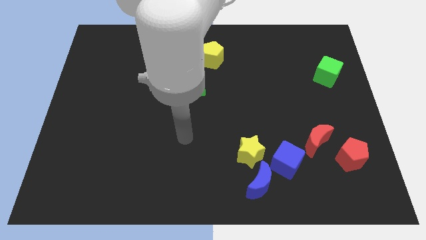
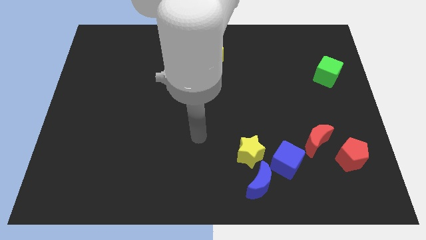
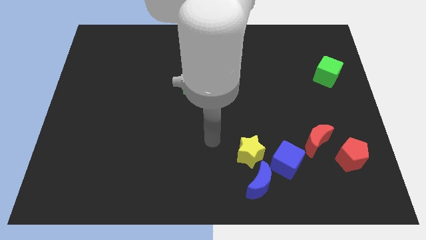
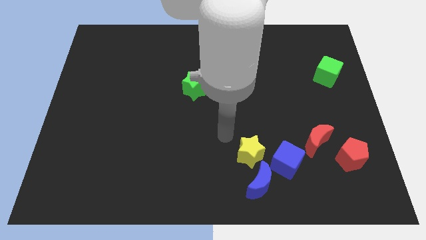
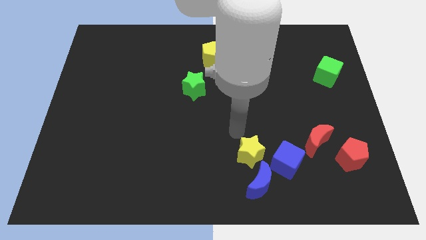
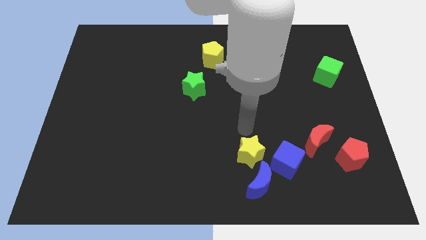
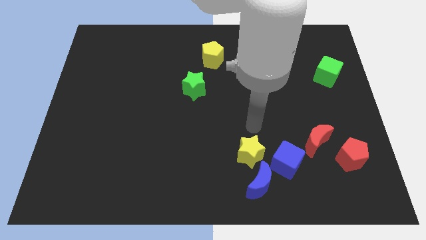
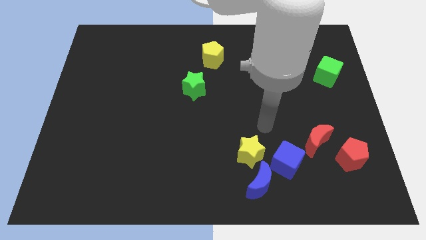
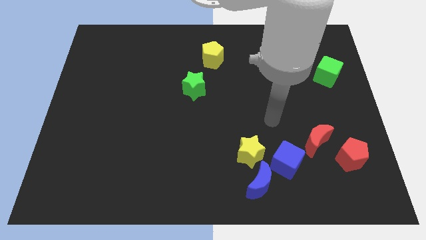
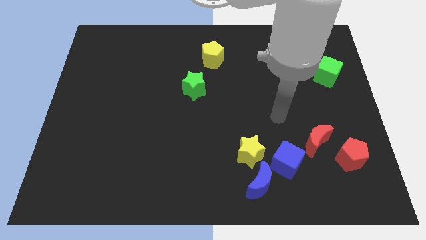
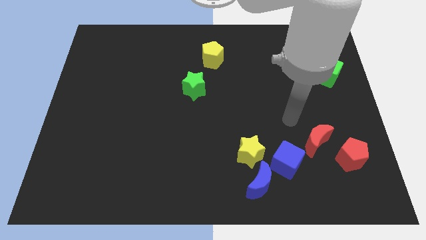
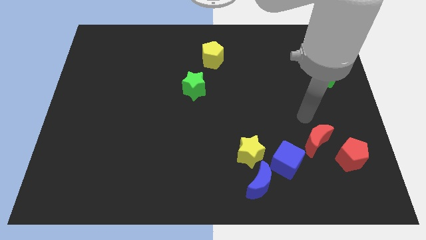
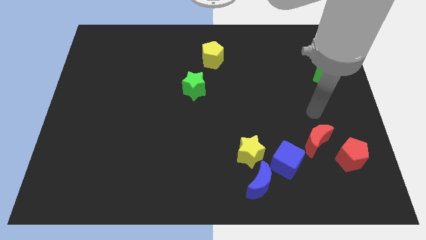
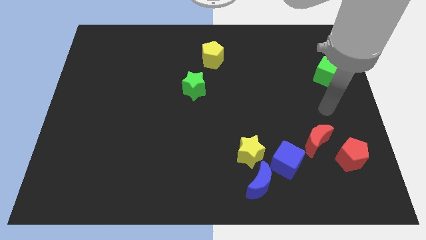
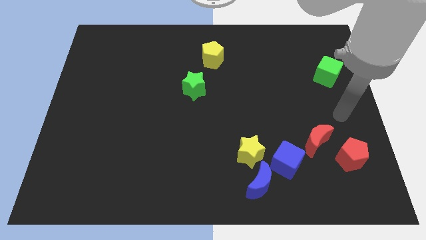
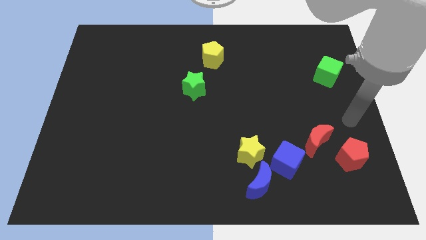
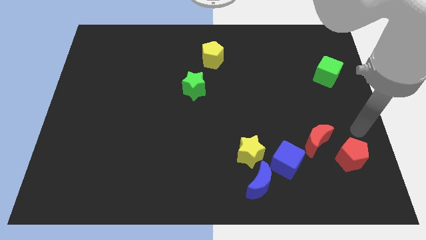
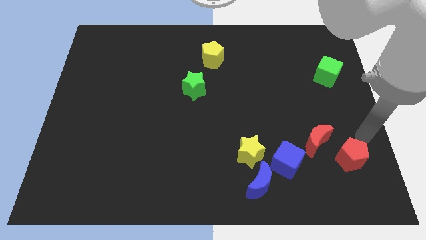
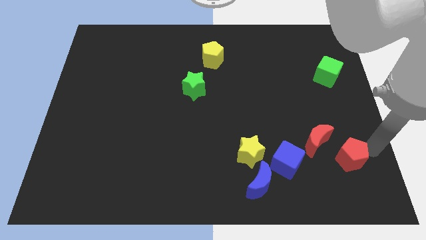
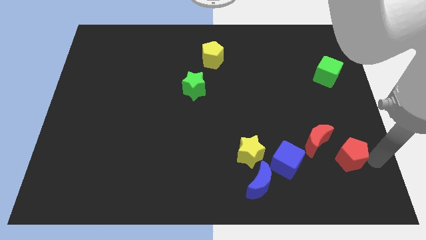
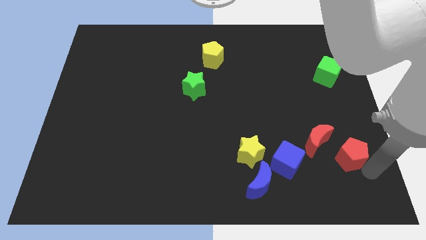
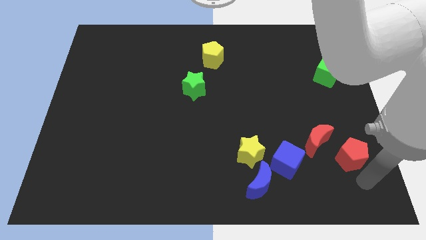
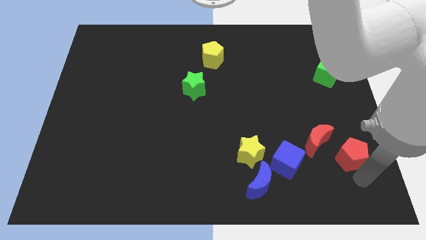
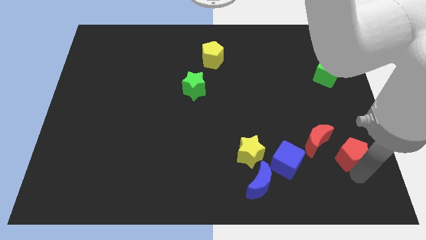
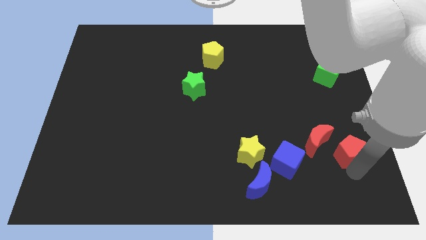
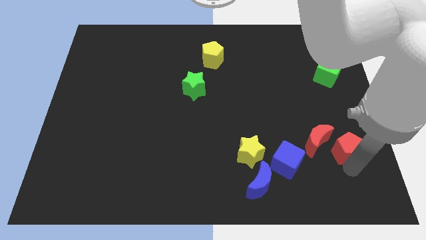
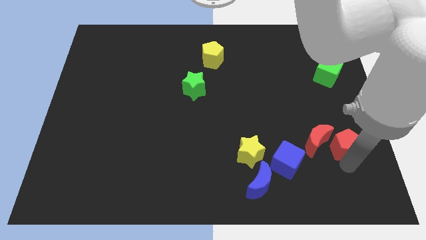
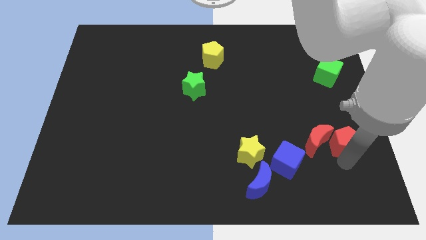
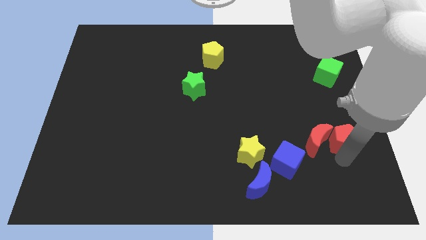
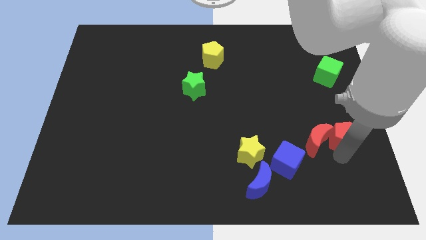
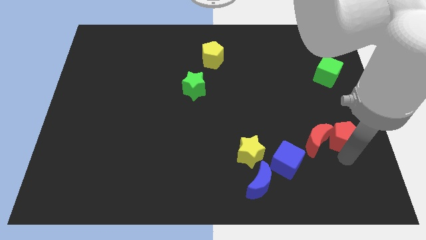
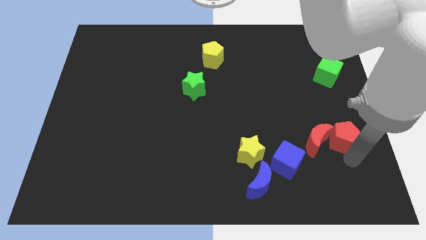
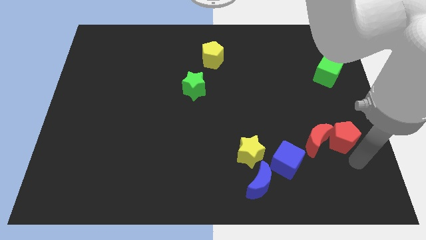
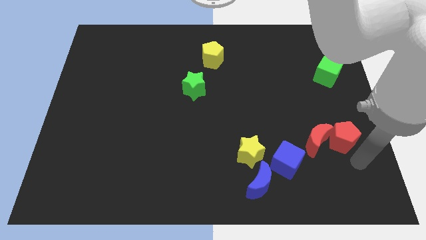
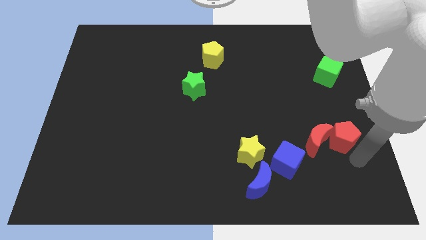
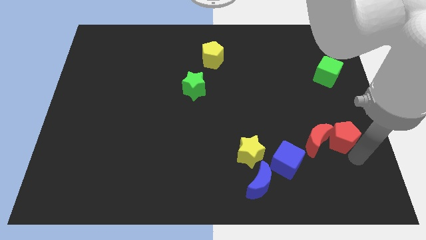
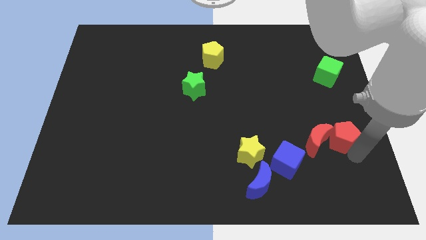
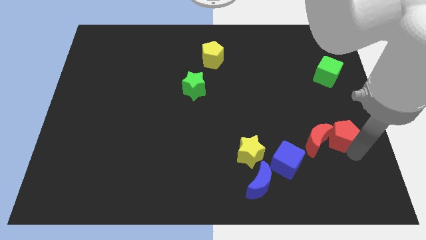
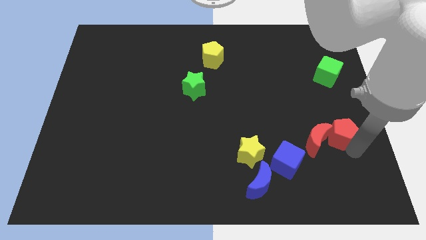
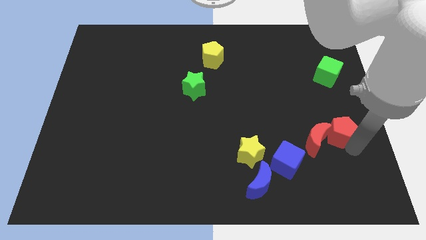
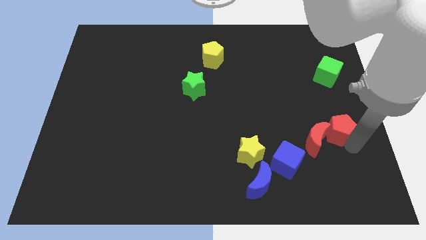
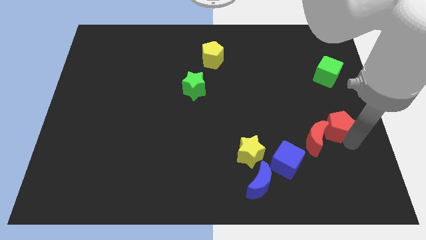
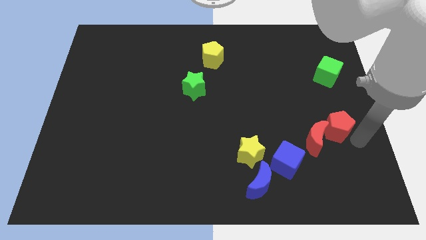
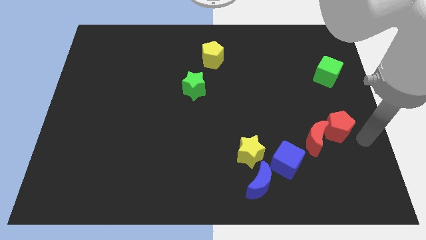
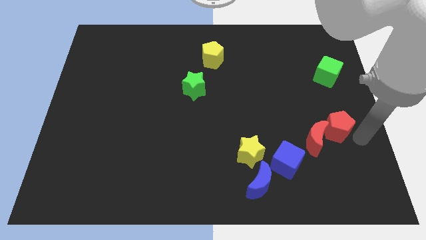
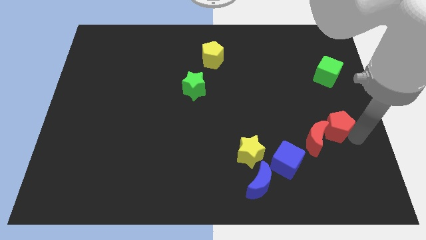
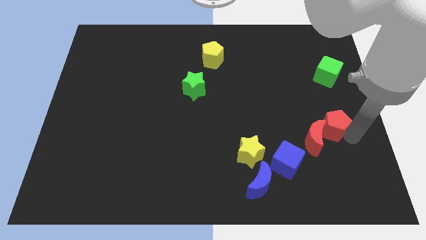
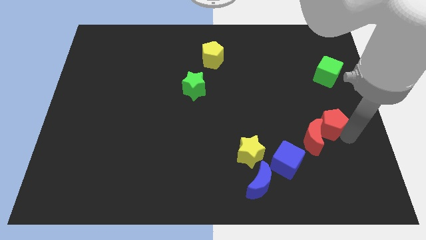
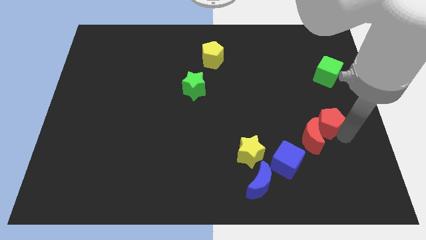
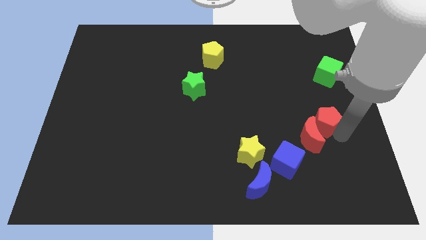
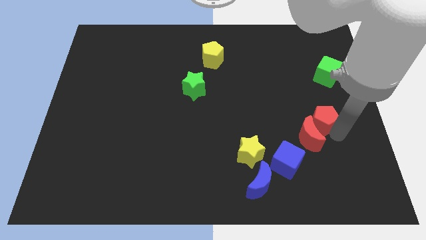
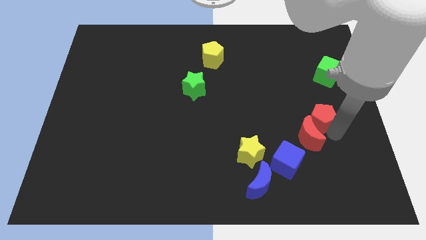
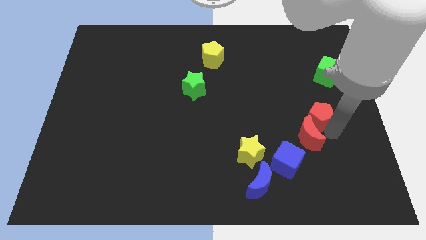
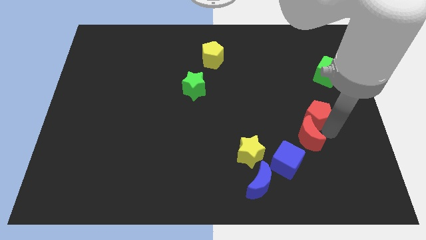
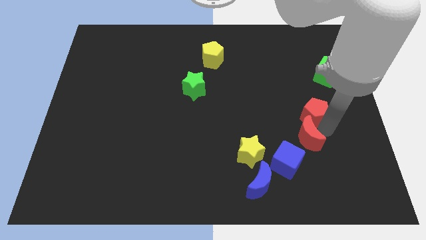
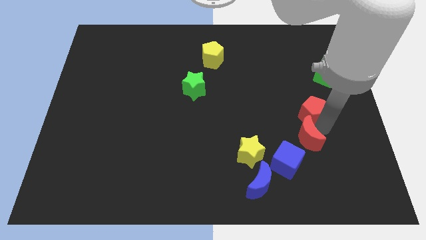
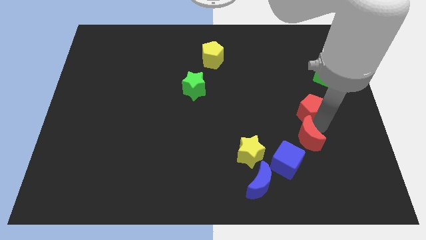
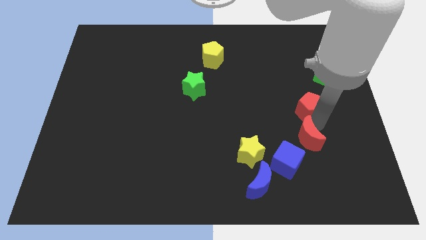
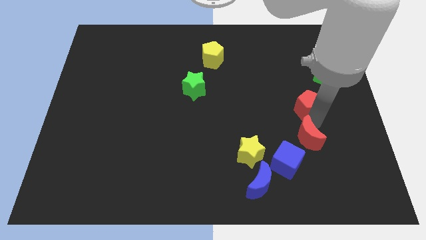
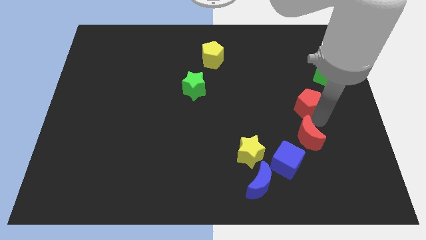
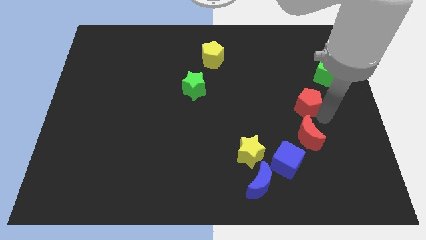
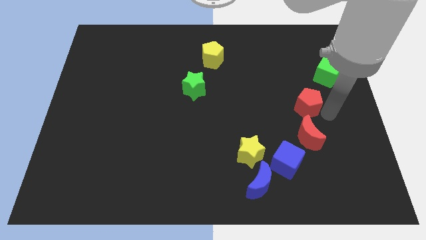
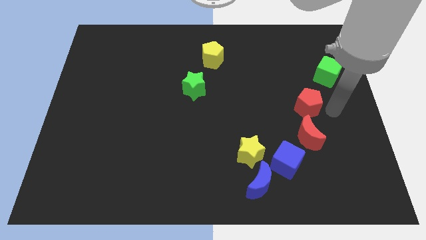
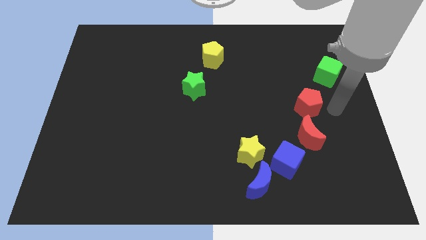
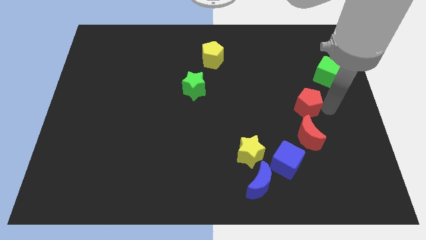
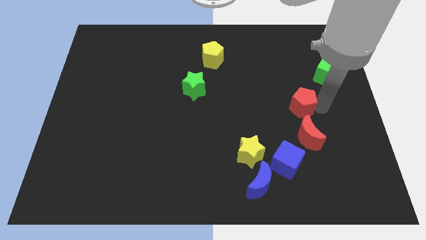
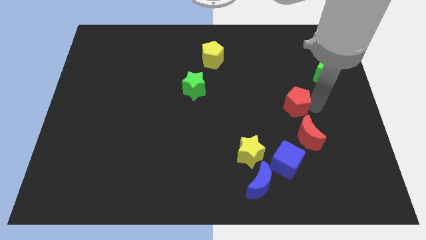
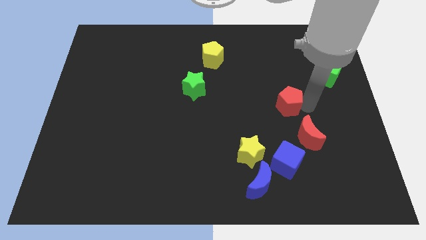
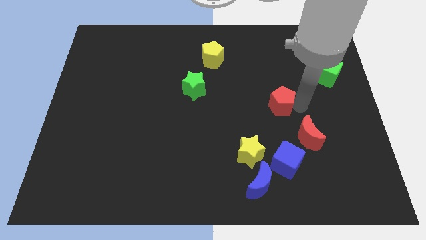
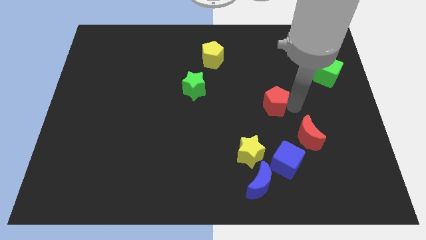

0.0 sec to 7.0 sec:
move the red pentagon up and then left

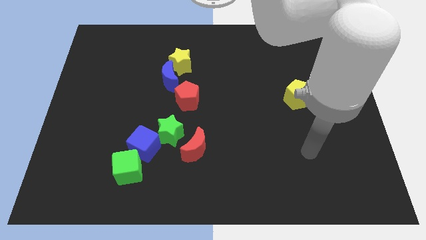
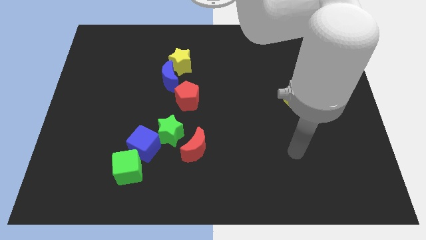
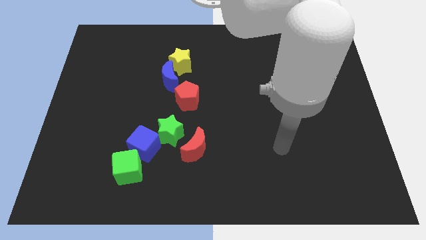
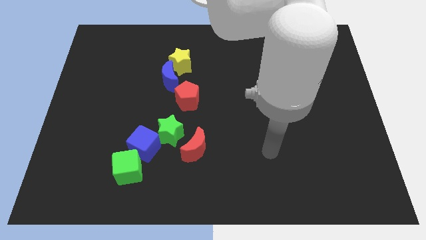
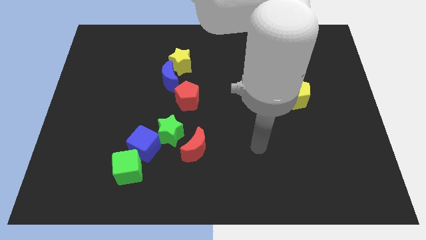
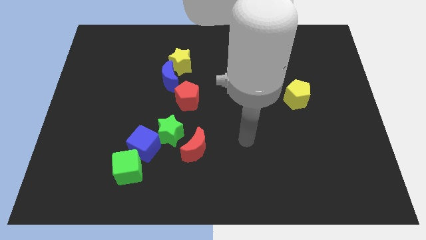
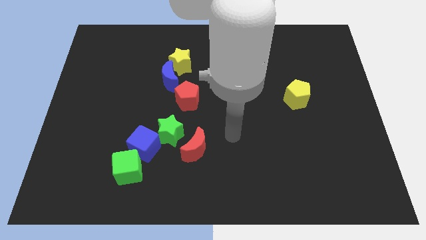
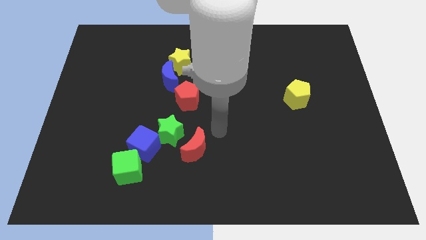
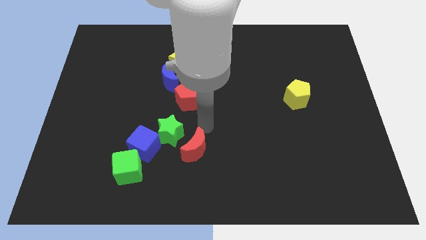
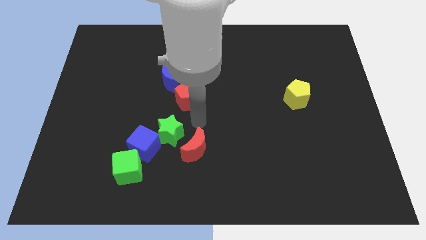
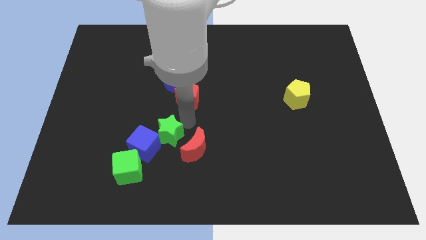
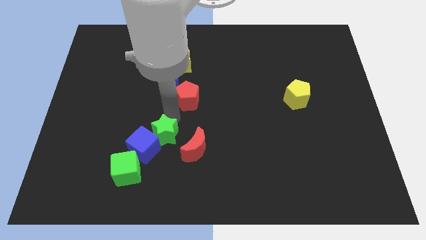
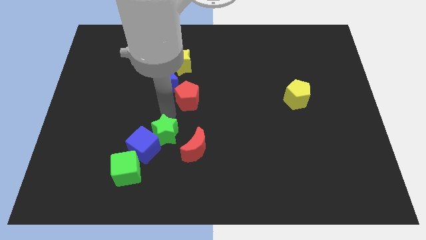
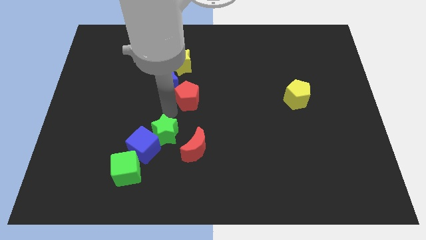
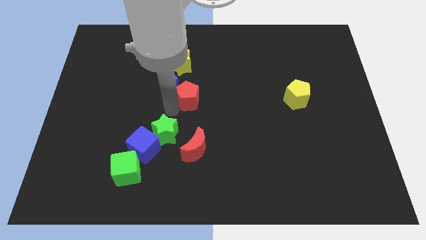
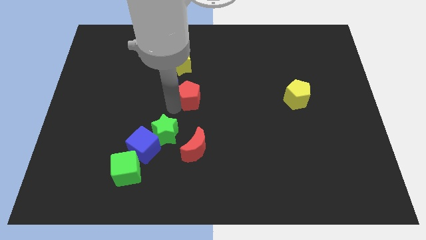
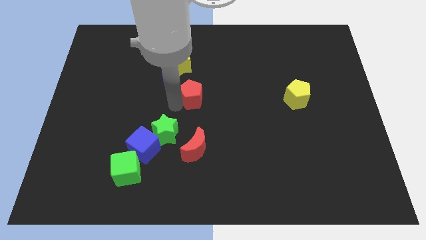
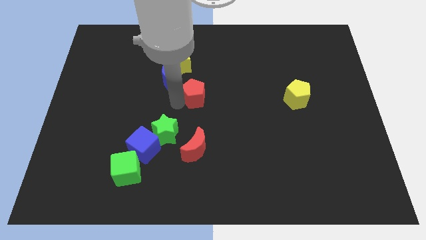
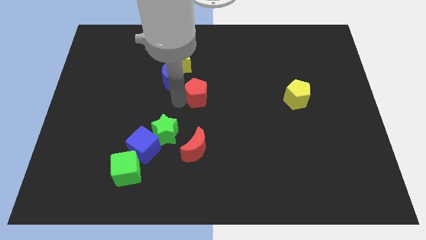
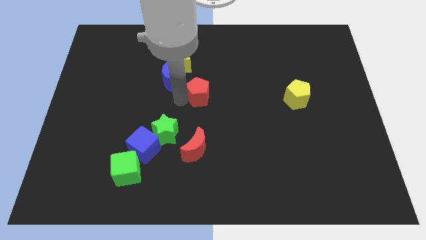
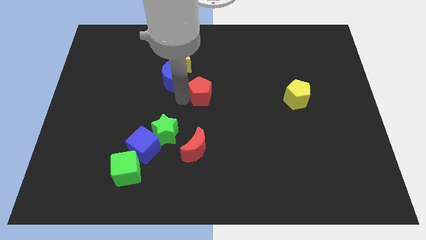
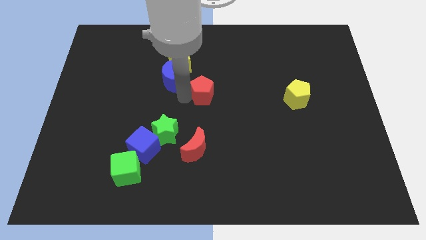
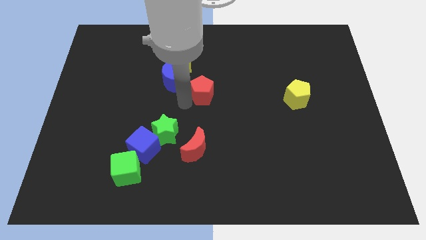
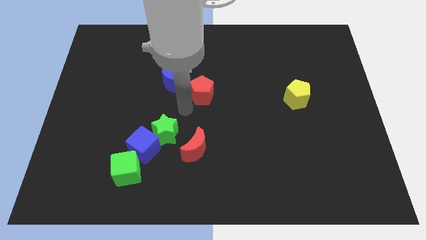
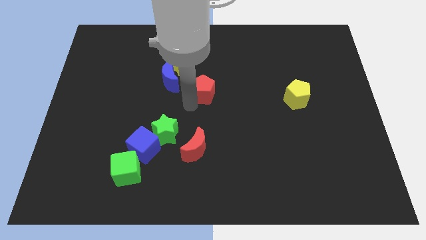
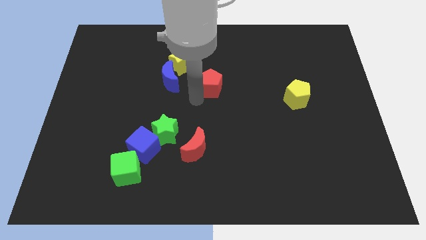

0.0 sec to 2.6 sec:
move the red pentagon up and then right slightly
